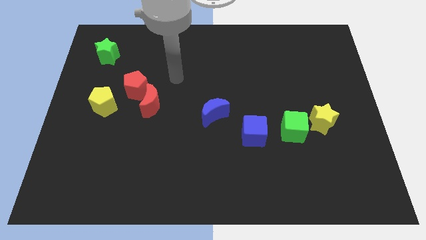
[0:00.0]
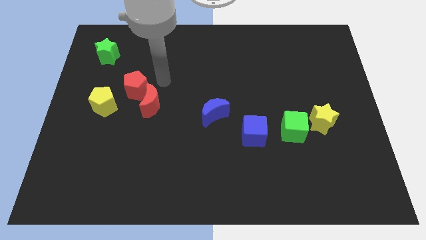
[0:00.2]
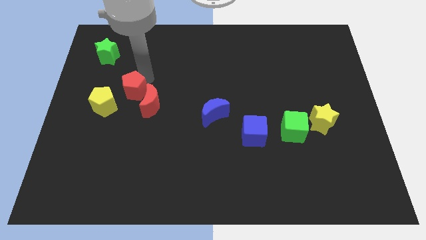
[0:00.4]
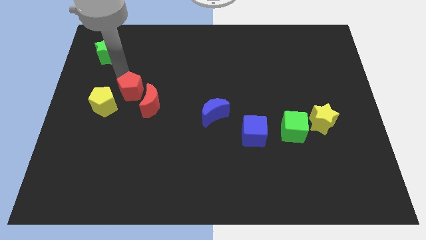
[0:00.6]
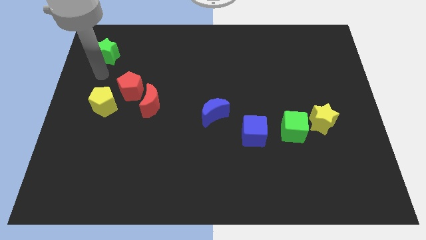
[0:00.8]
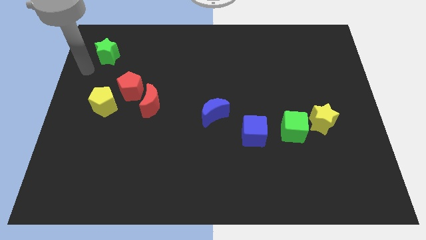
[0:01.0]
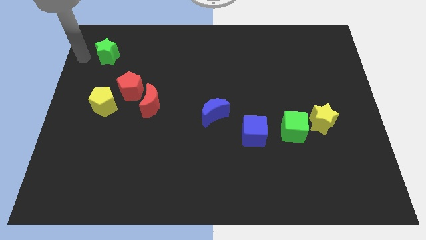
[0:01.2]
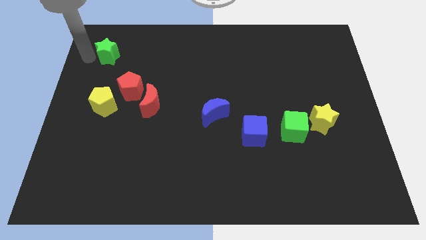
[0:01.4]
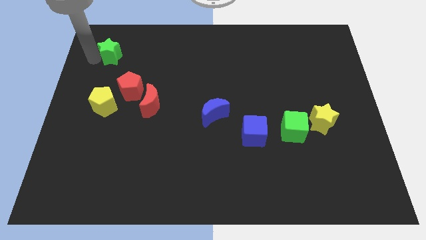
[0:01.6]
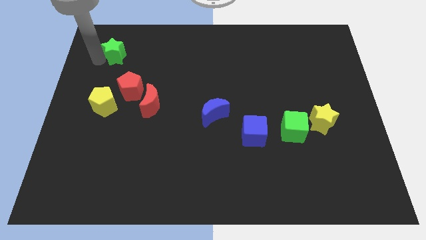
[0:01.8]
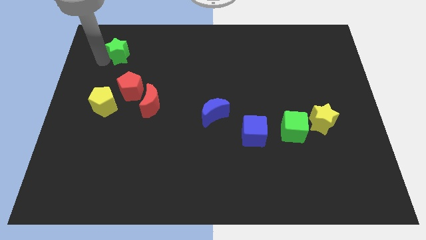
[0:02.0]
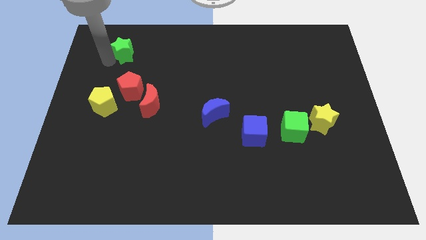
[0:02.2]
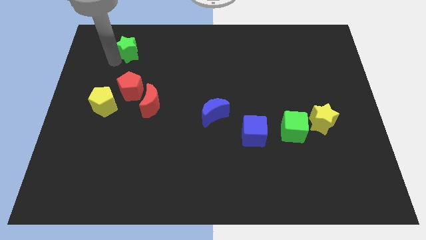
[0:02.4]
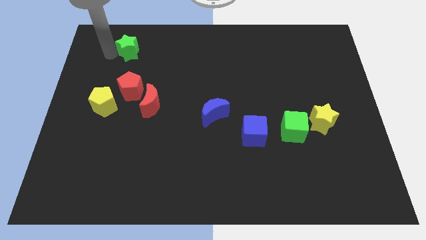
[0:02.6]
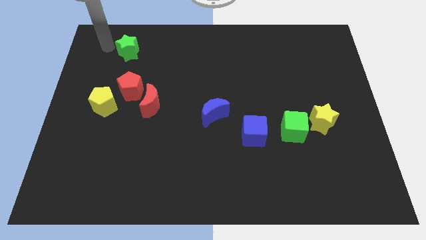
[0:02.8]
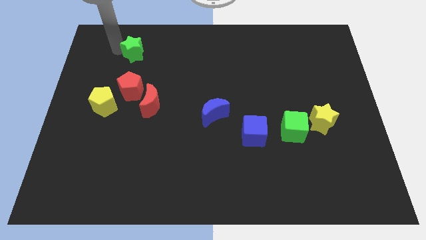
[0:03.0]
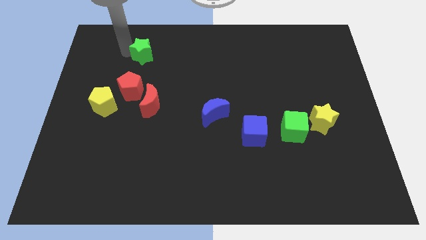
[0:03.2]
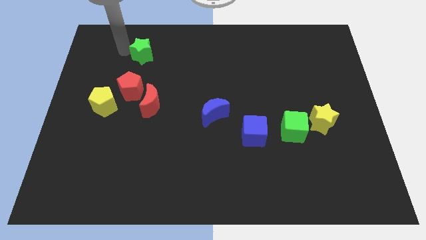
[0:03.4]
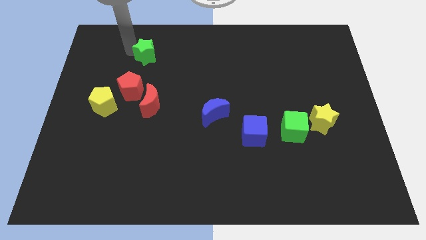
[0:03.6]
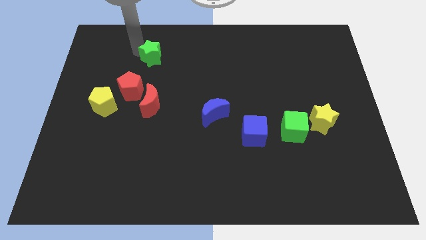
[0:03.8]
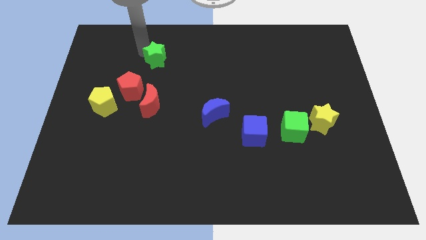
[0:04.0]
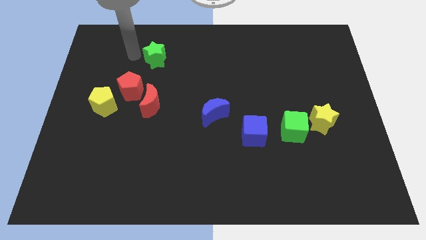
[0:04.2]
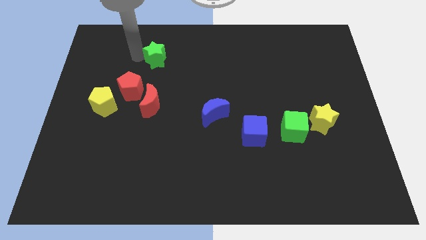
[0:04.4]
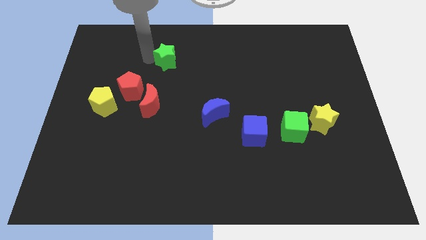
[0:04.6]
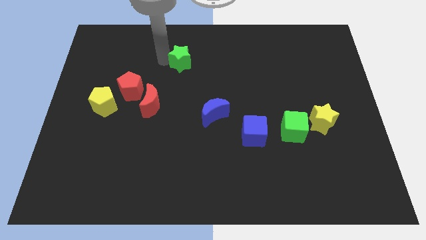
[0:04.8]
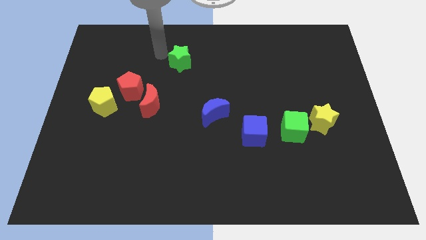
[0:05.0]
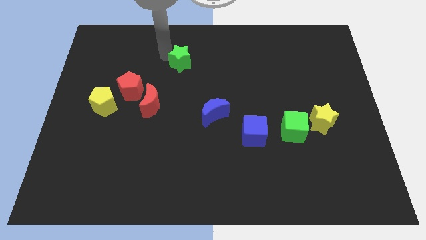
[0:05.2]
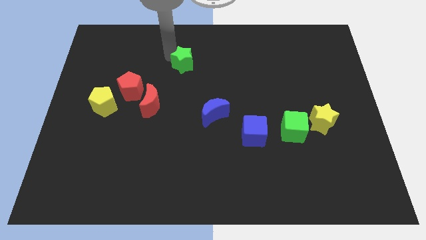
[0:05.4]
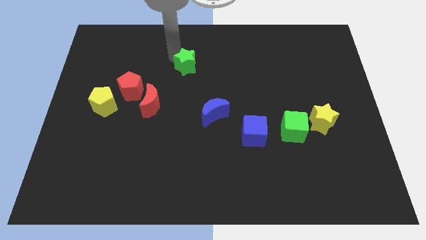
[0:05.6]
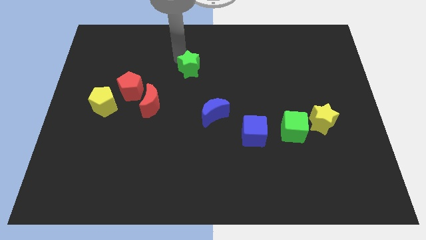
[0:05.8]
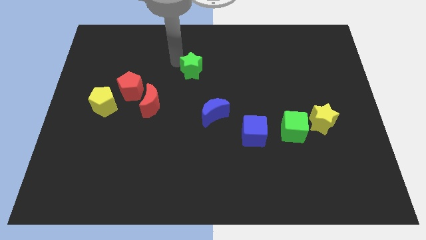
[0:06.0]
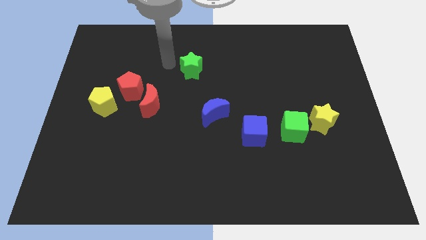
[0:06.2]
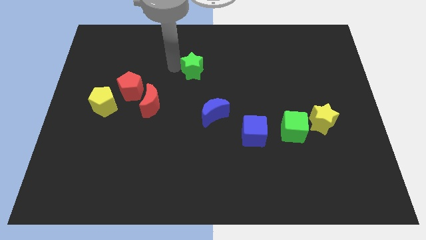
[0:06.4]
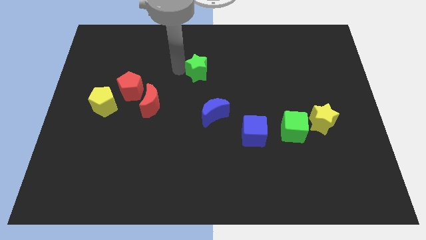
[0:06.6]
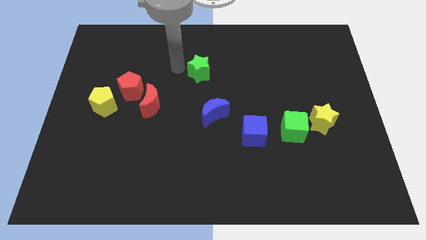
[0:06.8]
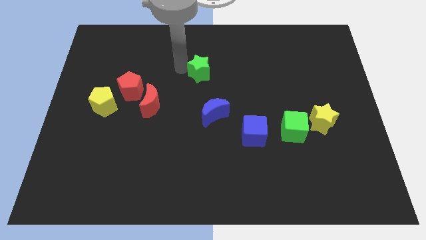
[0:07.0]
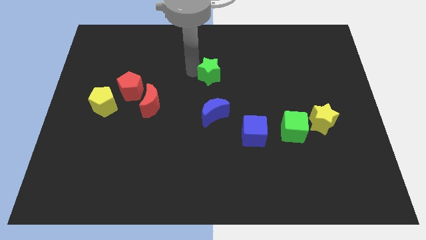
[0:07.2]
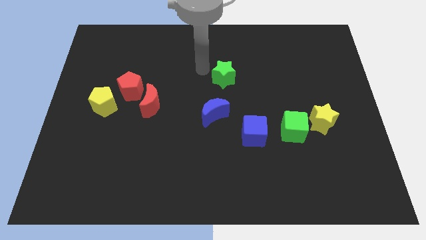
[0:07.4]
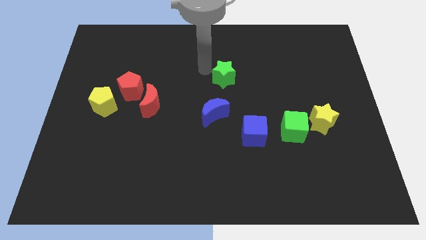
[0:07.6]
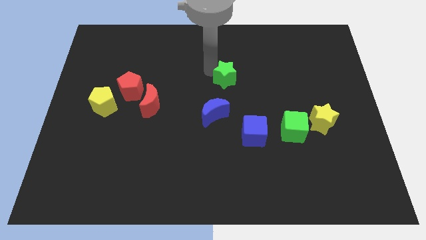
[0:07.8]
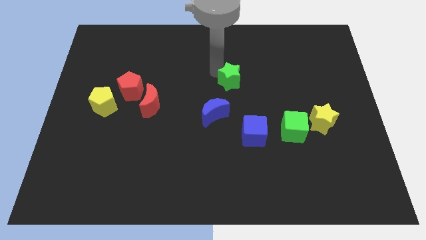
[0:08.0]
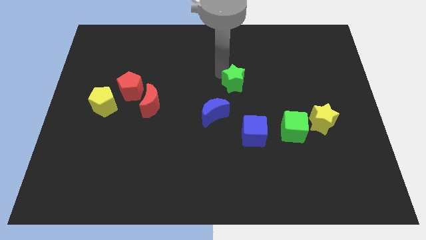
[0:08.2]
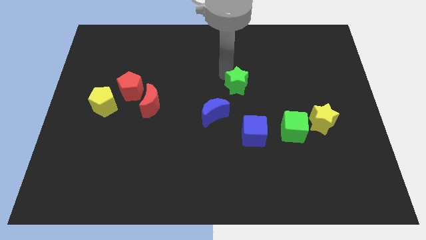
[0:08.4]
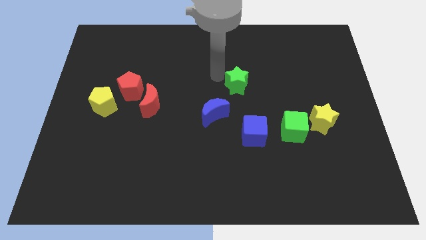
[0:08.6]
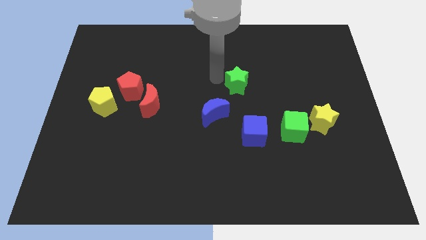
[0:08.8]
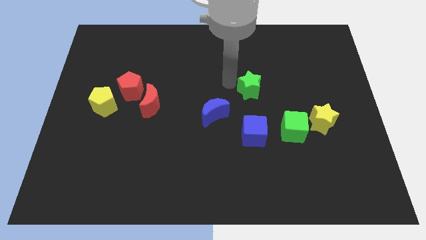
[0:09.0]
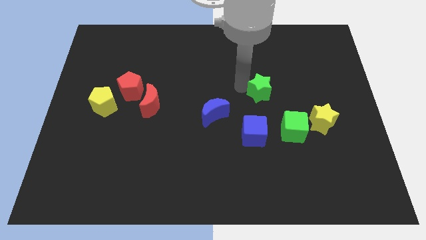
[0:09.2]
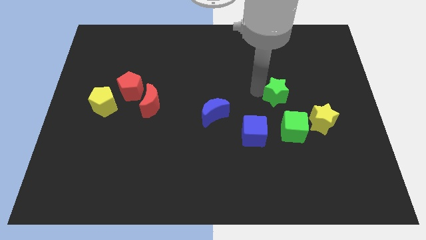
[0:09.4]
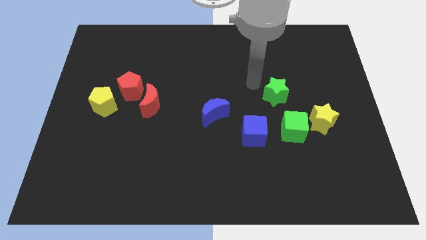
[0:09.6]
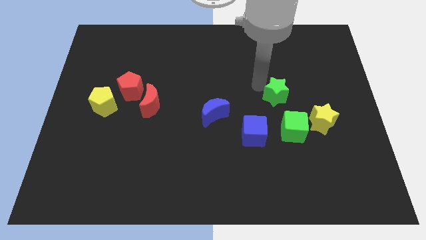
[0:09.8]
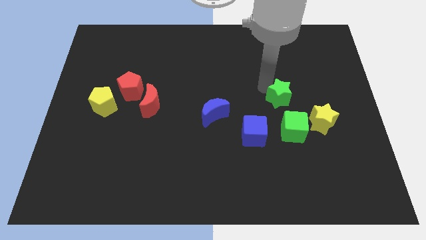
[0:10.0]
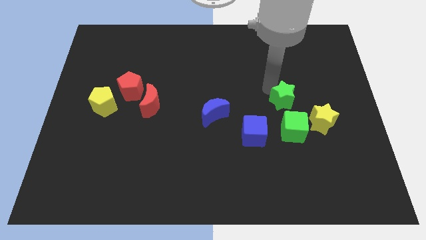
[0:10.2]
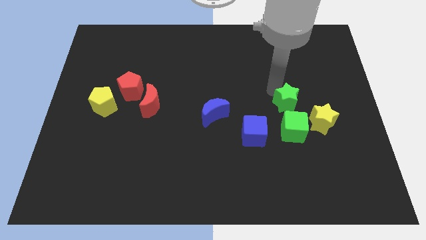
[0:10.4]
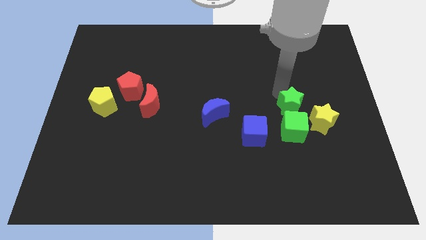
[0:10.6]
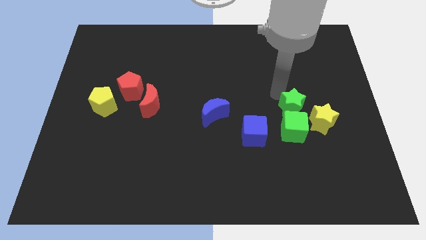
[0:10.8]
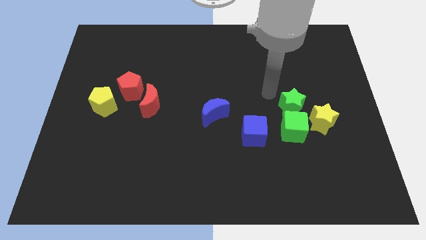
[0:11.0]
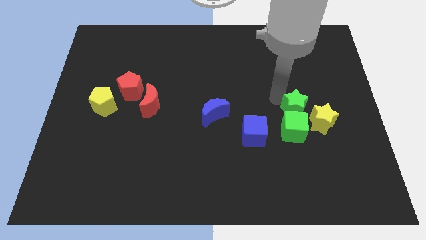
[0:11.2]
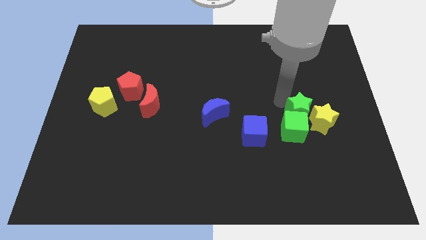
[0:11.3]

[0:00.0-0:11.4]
push the green star to the yellow star

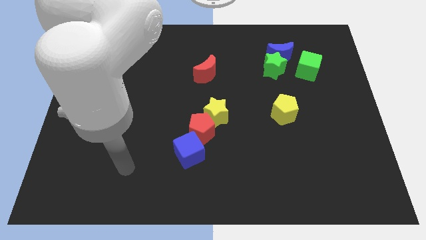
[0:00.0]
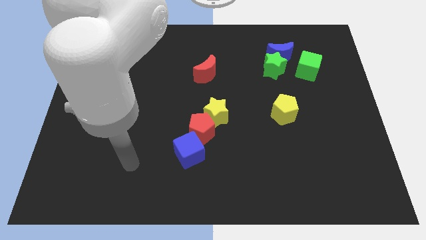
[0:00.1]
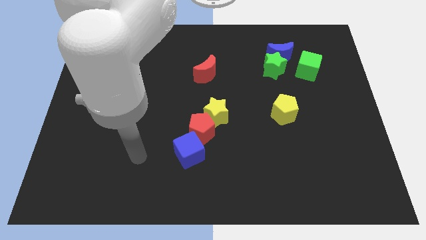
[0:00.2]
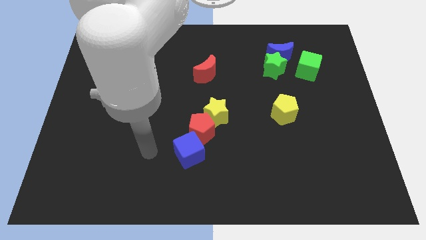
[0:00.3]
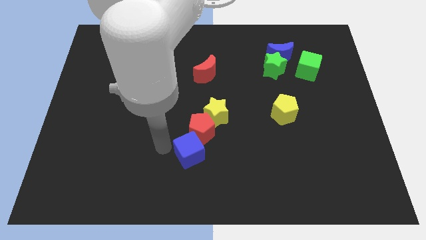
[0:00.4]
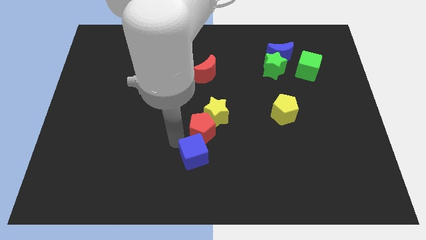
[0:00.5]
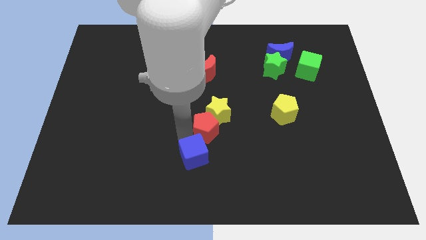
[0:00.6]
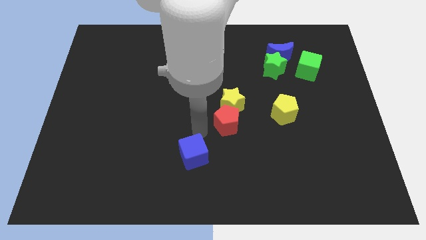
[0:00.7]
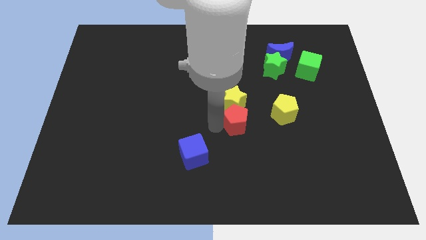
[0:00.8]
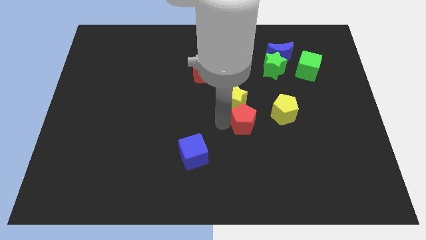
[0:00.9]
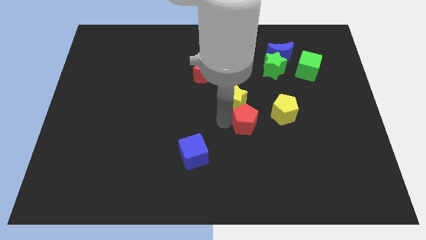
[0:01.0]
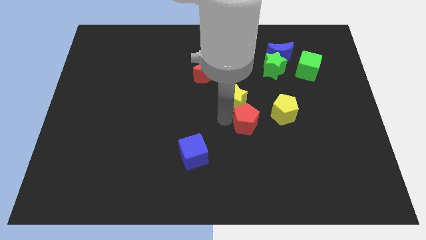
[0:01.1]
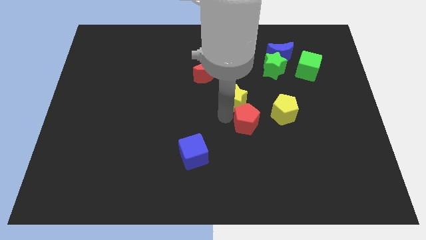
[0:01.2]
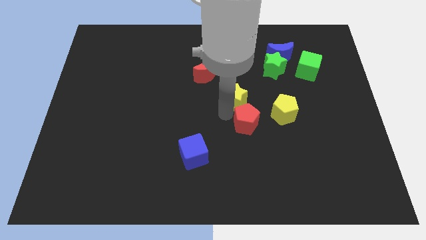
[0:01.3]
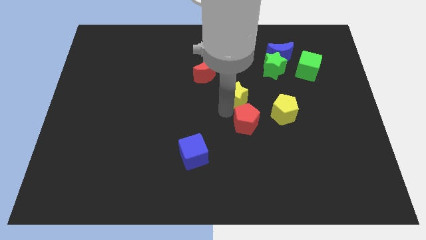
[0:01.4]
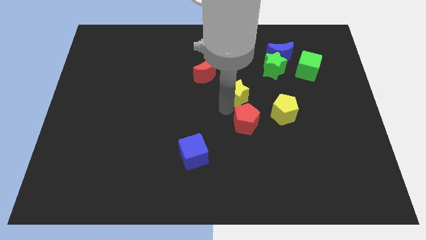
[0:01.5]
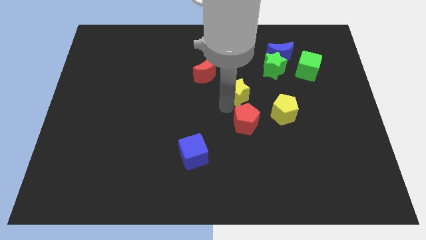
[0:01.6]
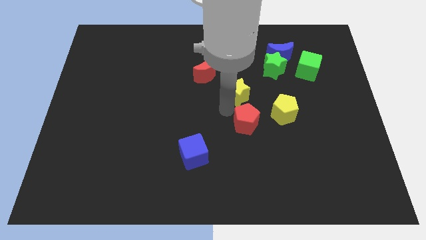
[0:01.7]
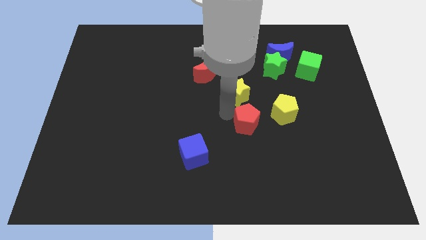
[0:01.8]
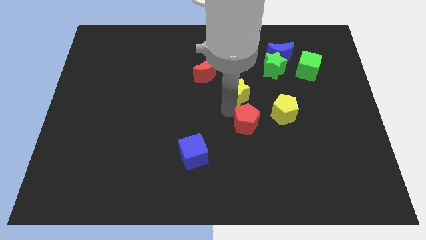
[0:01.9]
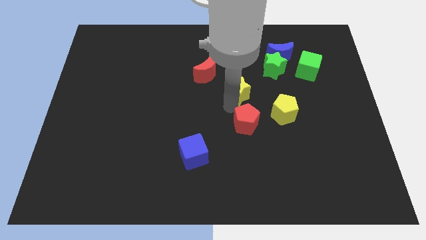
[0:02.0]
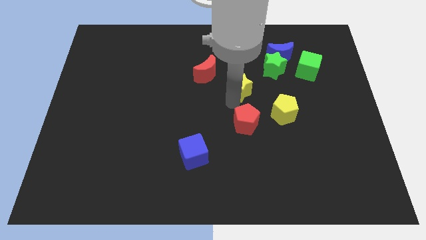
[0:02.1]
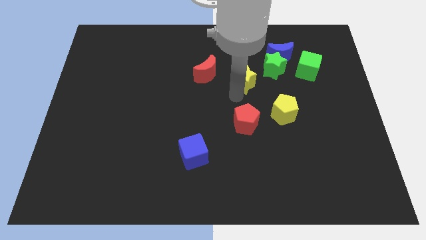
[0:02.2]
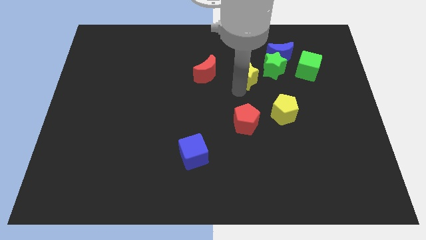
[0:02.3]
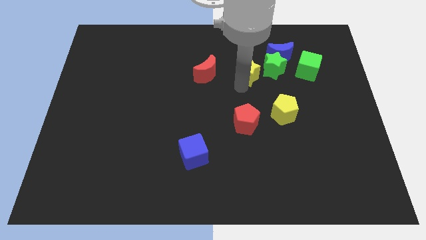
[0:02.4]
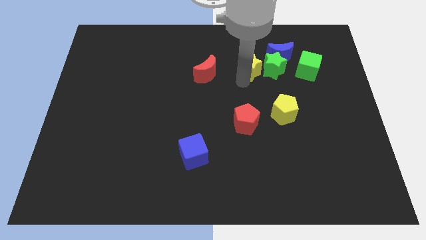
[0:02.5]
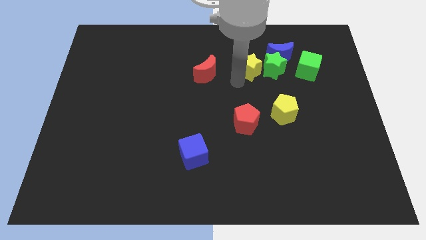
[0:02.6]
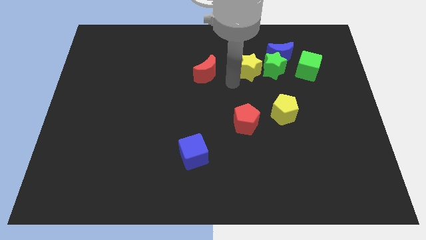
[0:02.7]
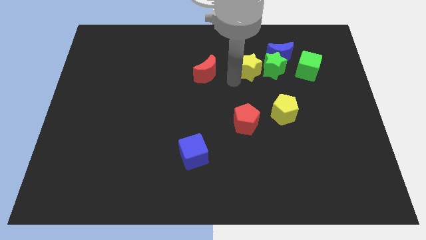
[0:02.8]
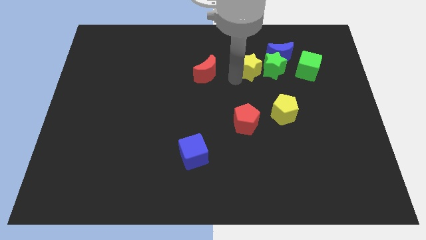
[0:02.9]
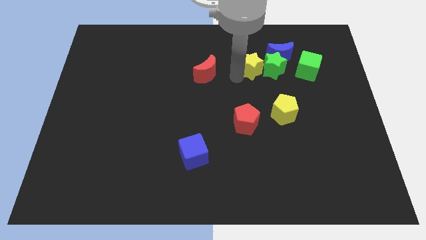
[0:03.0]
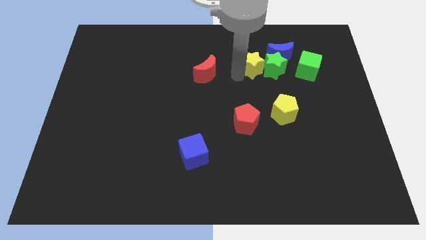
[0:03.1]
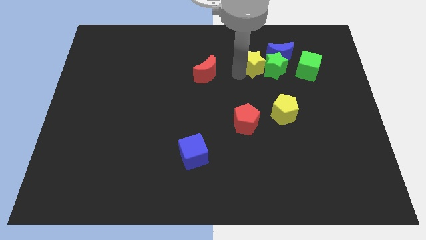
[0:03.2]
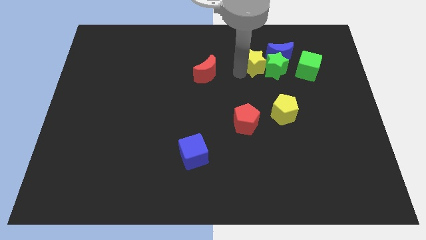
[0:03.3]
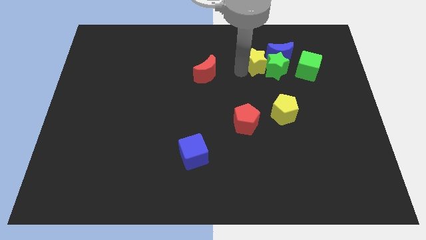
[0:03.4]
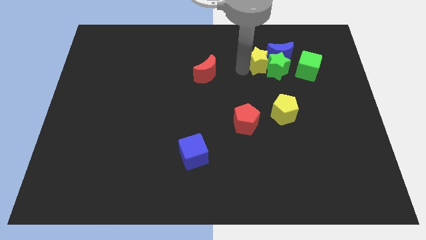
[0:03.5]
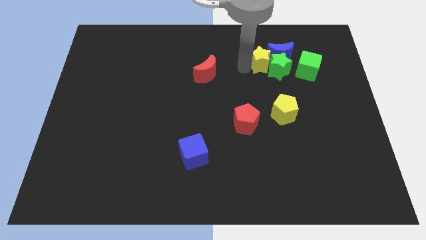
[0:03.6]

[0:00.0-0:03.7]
move the yellow star towards the blue moon
